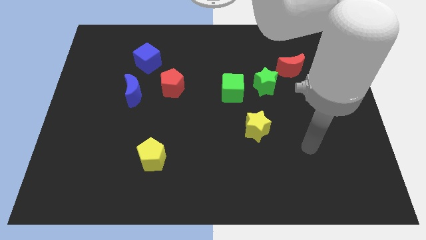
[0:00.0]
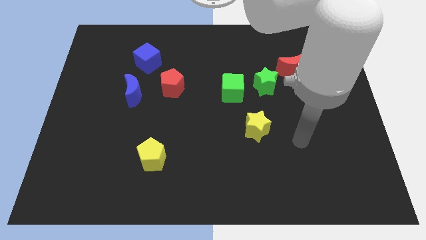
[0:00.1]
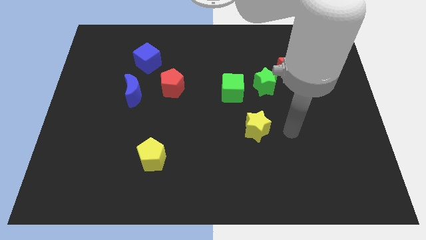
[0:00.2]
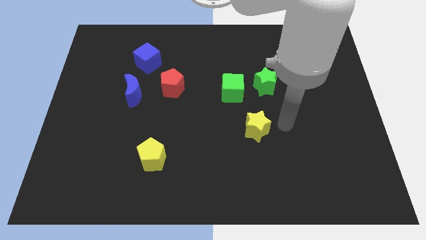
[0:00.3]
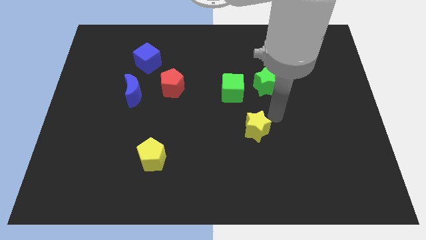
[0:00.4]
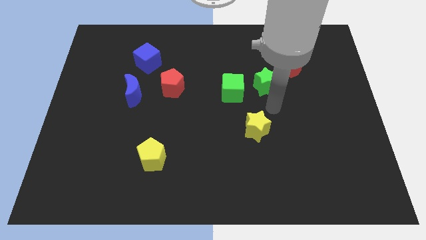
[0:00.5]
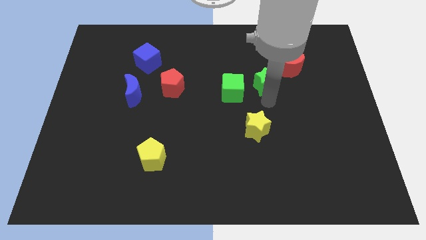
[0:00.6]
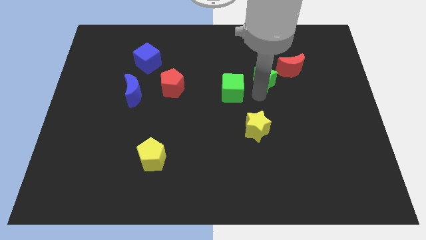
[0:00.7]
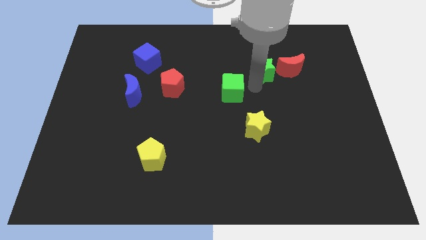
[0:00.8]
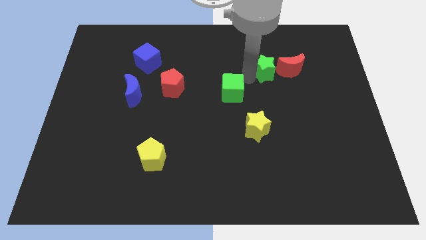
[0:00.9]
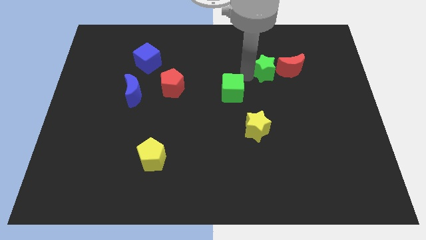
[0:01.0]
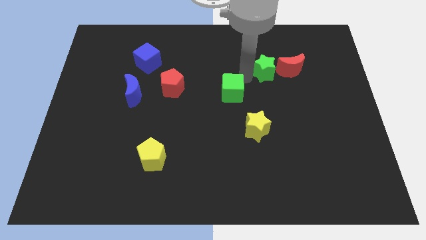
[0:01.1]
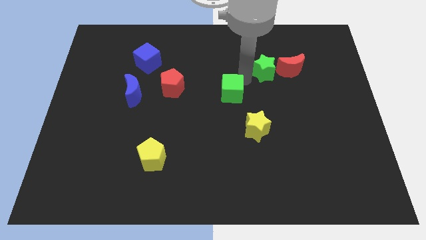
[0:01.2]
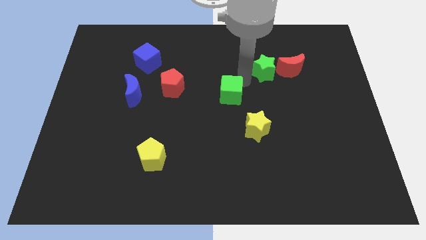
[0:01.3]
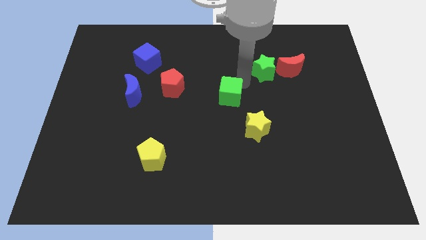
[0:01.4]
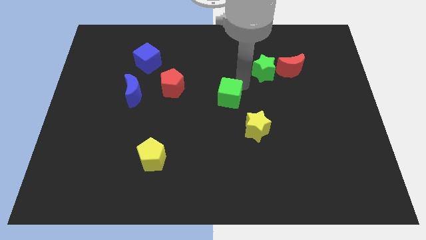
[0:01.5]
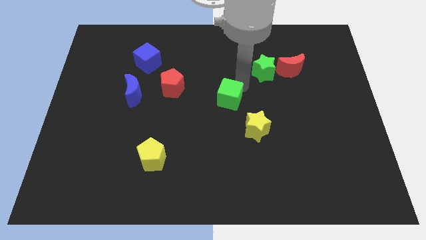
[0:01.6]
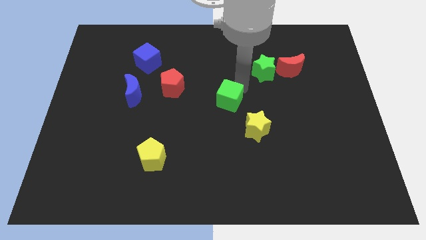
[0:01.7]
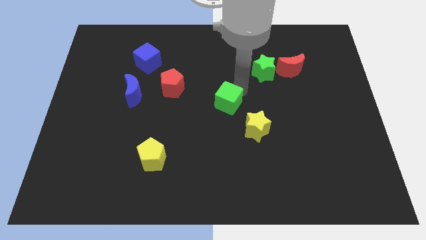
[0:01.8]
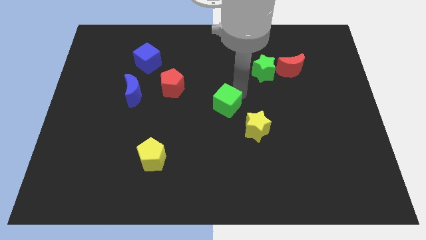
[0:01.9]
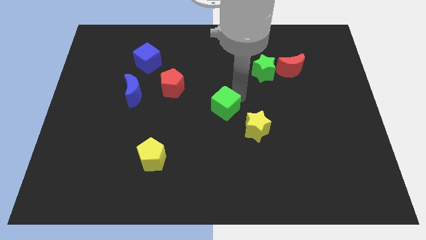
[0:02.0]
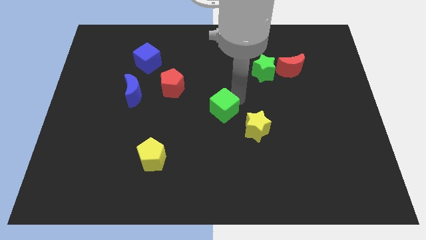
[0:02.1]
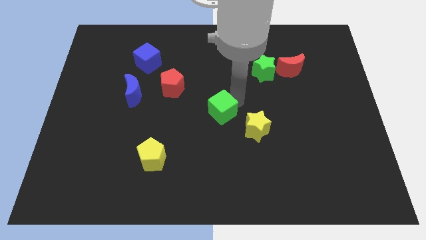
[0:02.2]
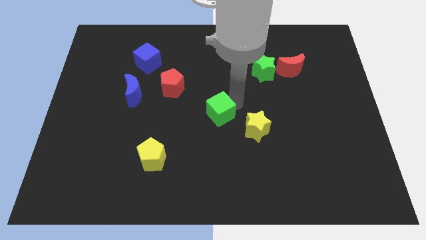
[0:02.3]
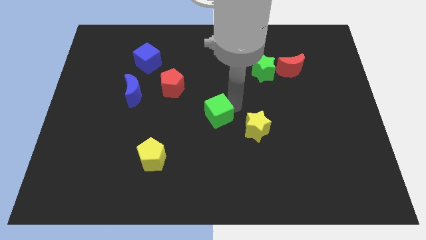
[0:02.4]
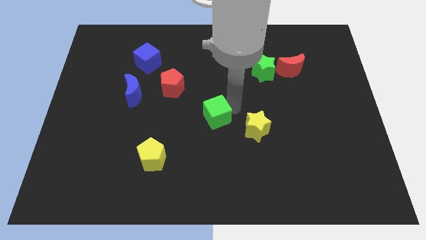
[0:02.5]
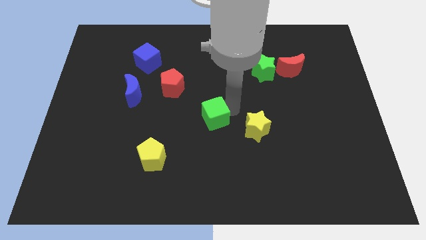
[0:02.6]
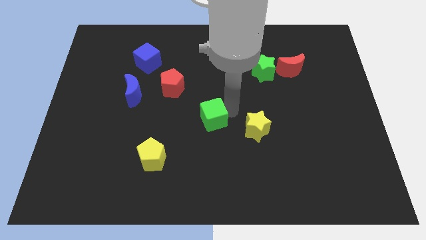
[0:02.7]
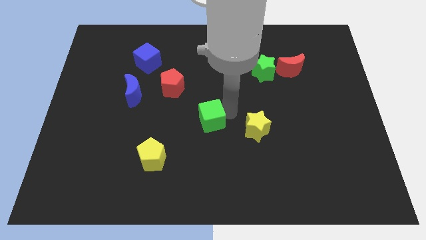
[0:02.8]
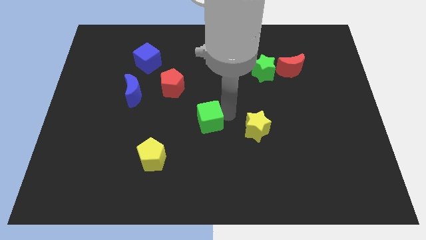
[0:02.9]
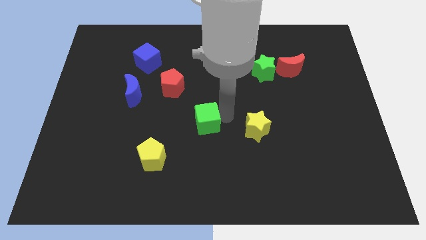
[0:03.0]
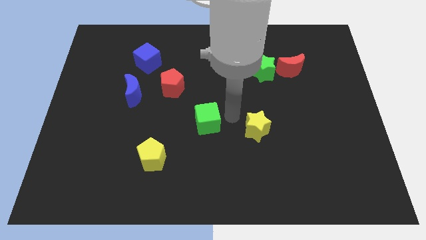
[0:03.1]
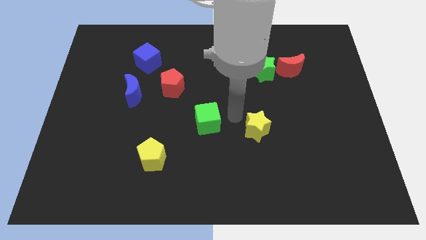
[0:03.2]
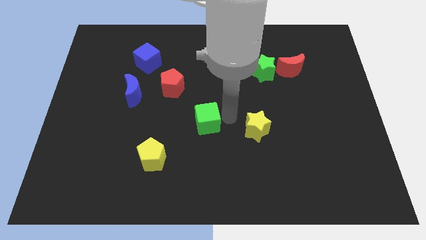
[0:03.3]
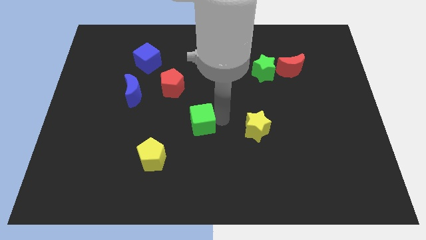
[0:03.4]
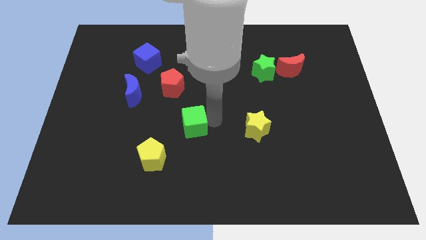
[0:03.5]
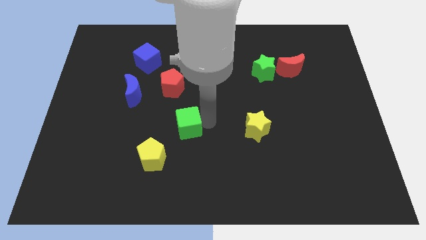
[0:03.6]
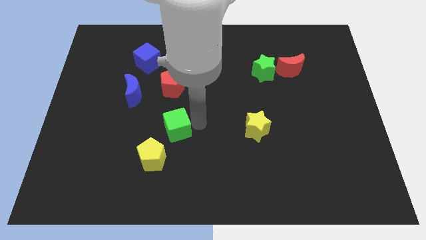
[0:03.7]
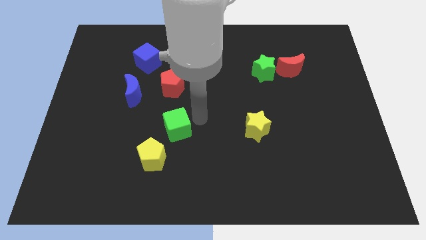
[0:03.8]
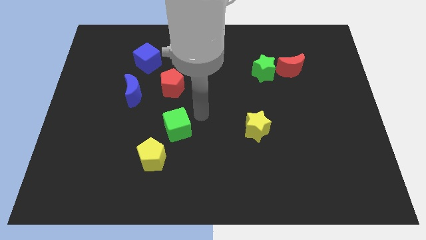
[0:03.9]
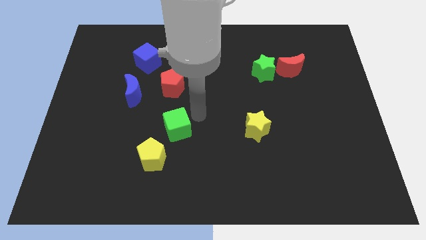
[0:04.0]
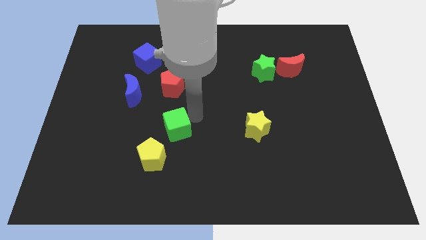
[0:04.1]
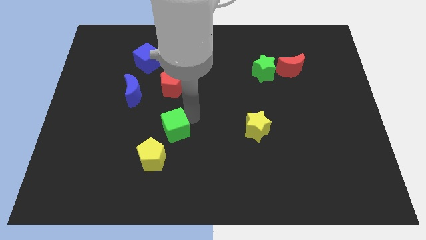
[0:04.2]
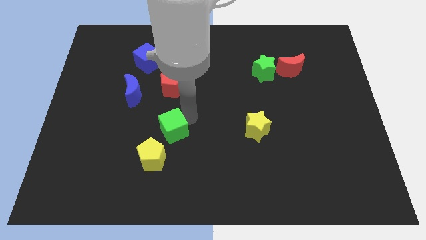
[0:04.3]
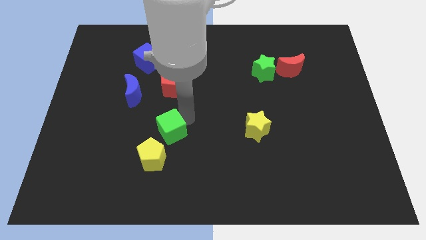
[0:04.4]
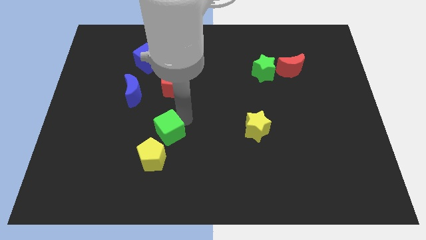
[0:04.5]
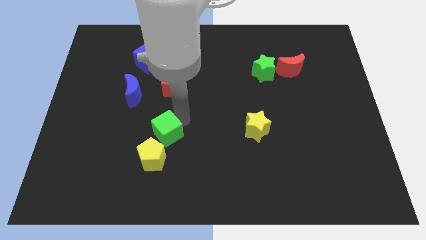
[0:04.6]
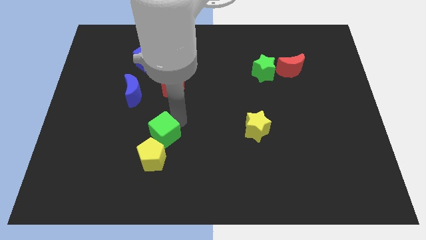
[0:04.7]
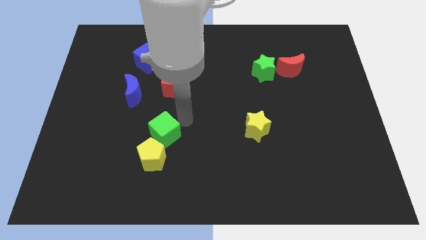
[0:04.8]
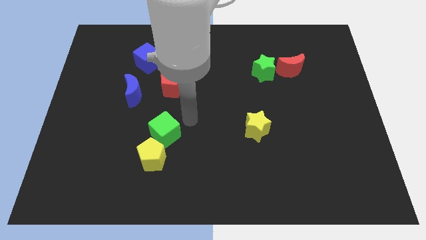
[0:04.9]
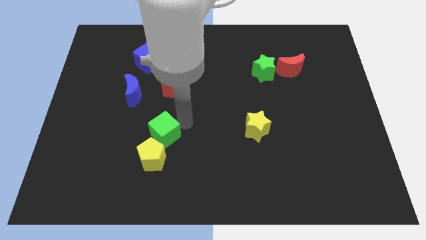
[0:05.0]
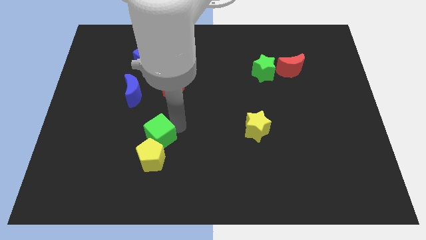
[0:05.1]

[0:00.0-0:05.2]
push the green cube down and to the left diagonally

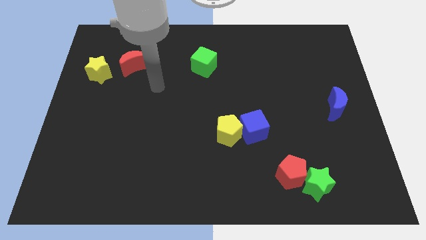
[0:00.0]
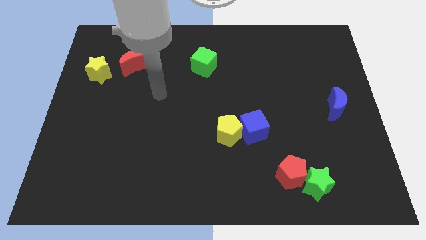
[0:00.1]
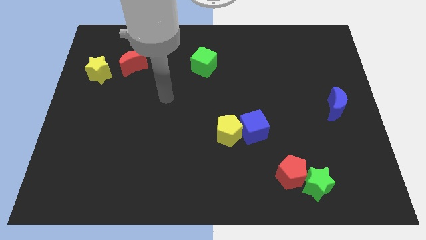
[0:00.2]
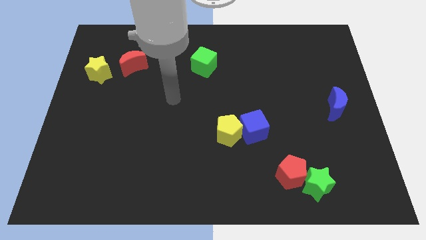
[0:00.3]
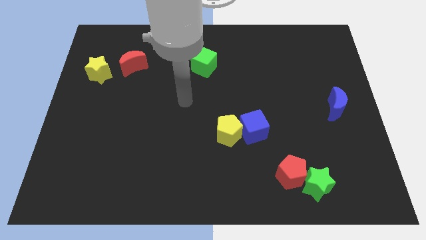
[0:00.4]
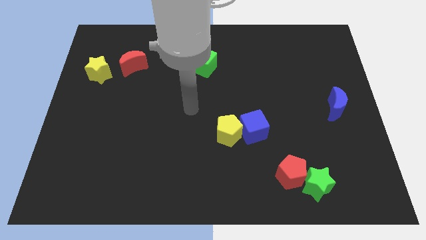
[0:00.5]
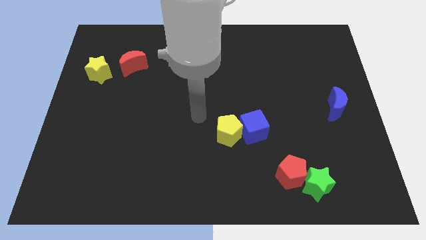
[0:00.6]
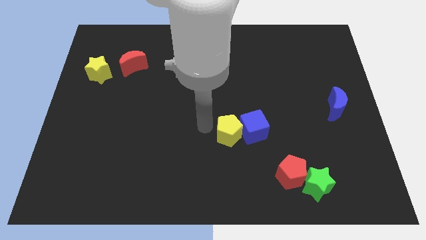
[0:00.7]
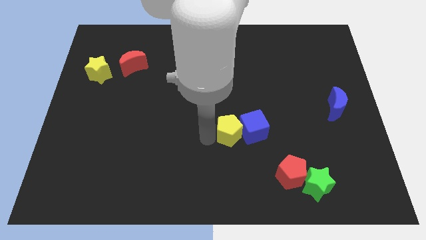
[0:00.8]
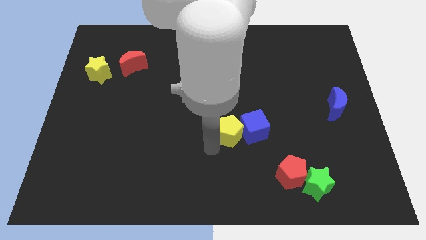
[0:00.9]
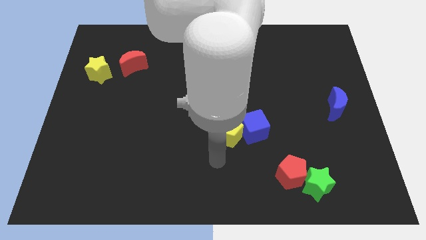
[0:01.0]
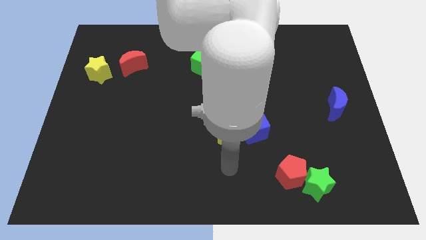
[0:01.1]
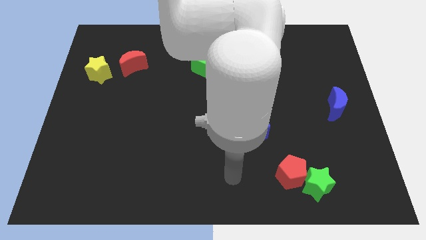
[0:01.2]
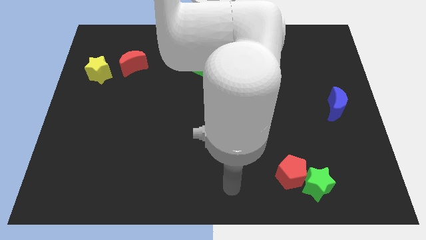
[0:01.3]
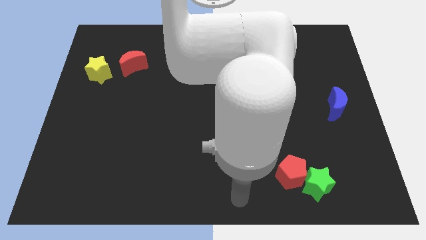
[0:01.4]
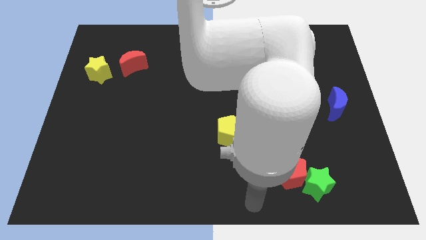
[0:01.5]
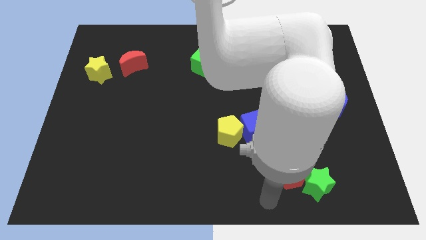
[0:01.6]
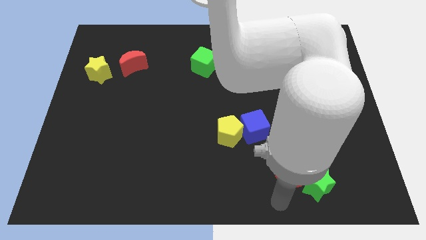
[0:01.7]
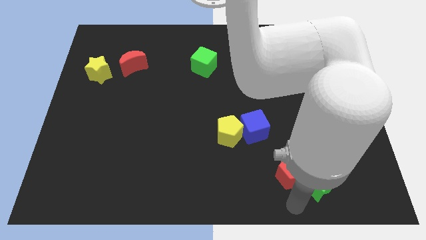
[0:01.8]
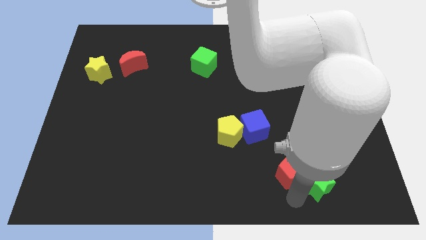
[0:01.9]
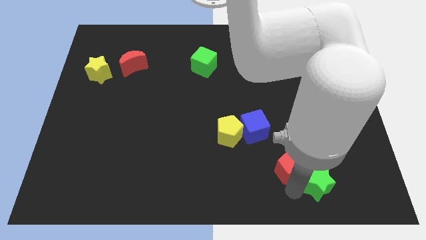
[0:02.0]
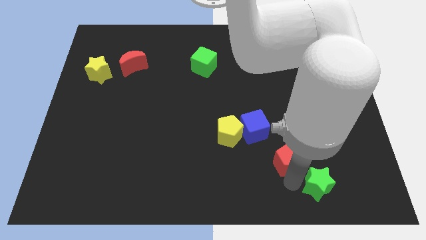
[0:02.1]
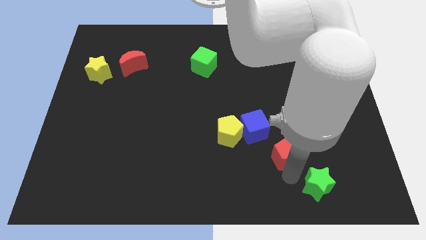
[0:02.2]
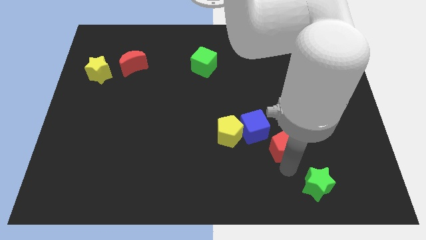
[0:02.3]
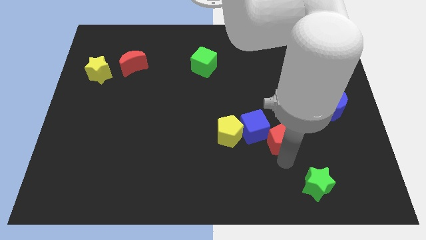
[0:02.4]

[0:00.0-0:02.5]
slightly move the red pentagon up

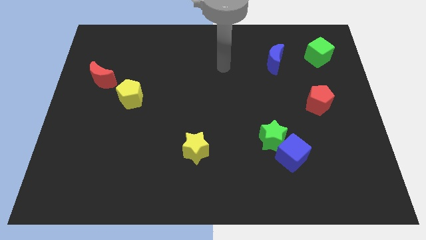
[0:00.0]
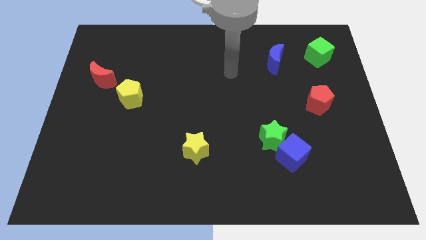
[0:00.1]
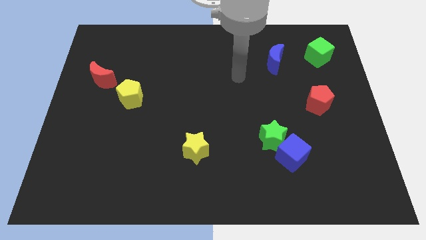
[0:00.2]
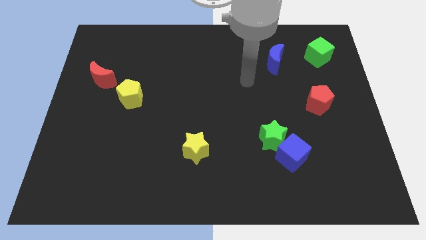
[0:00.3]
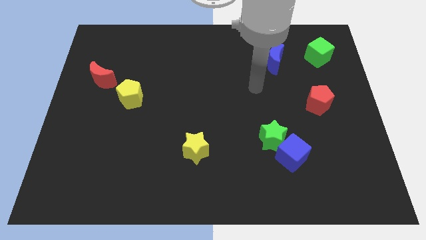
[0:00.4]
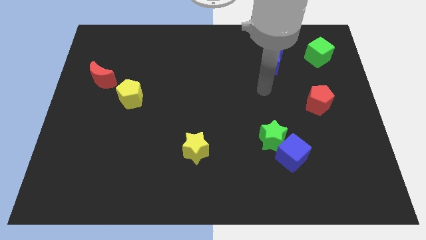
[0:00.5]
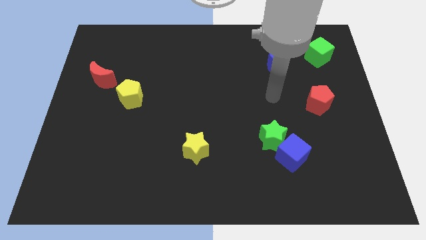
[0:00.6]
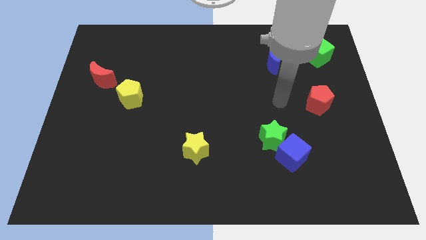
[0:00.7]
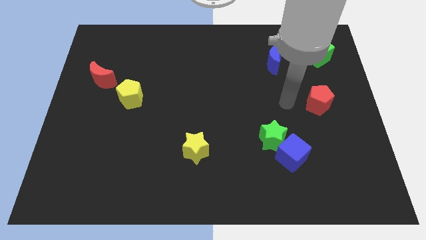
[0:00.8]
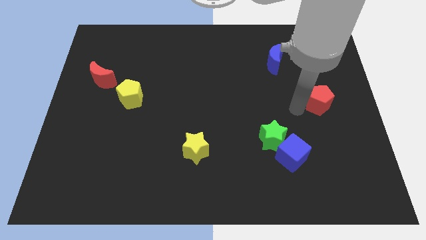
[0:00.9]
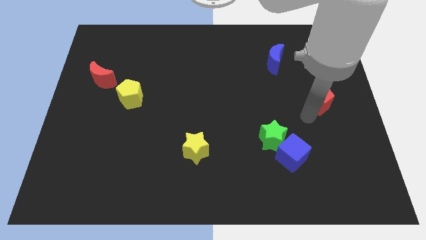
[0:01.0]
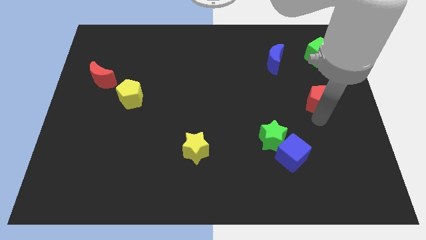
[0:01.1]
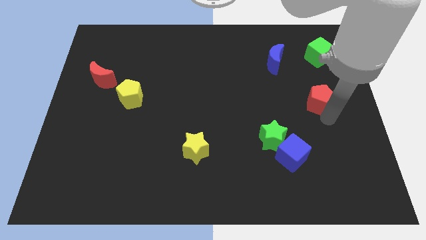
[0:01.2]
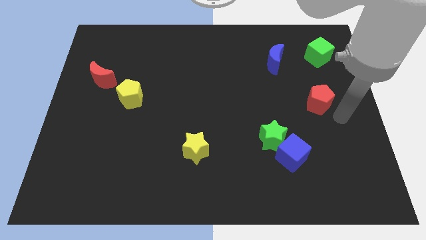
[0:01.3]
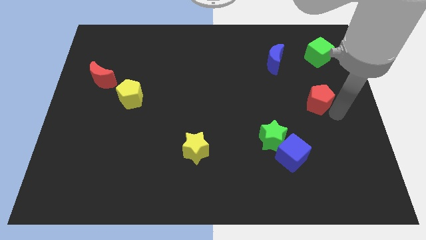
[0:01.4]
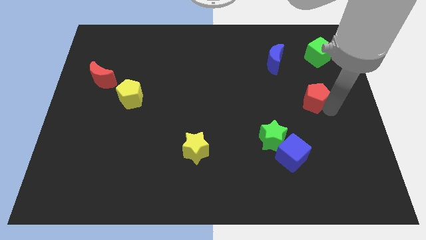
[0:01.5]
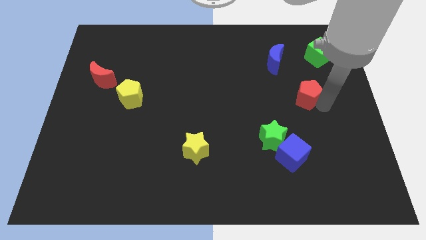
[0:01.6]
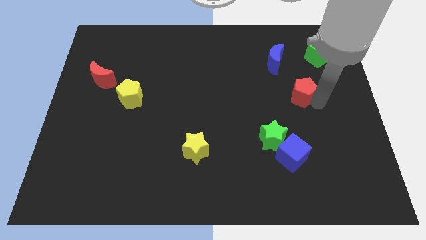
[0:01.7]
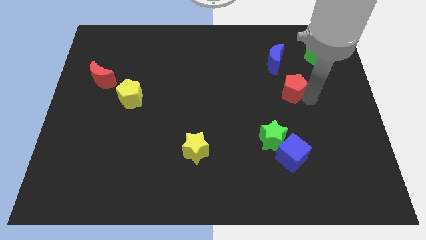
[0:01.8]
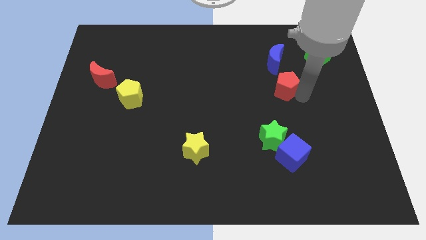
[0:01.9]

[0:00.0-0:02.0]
push the red pentagon up and to the left diagonally somewhat
